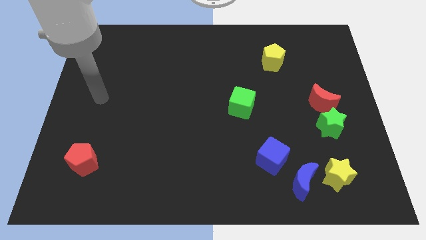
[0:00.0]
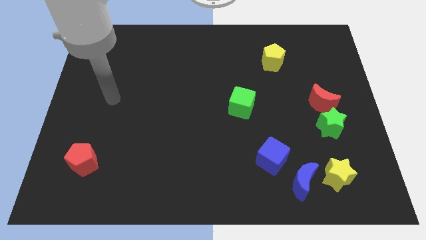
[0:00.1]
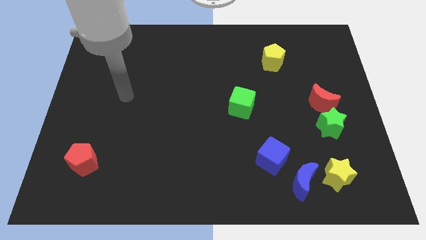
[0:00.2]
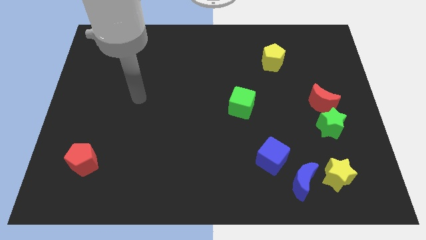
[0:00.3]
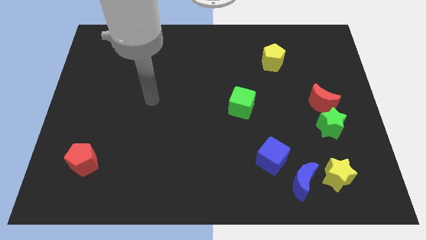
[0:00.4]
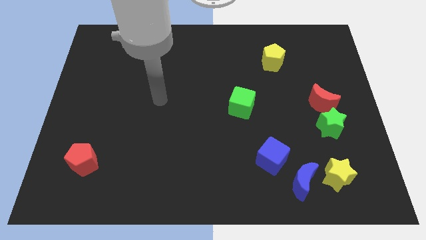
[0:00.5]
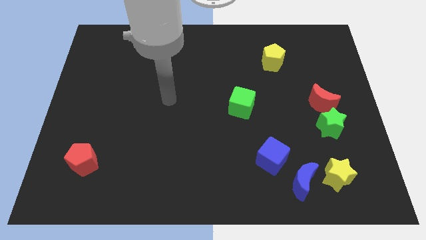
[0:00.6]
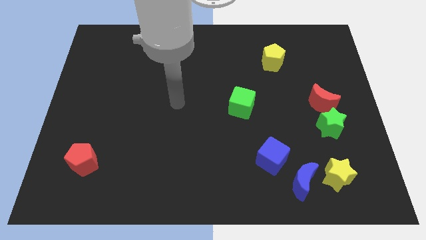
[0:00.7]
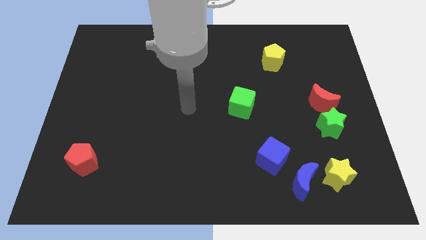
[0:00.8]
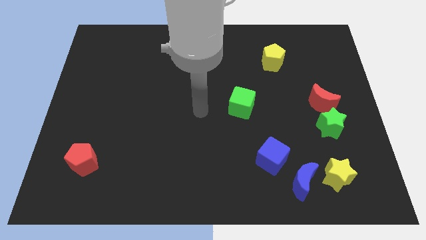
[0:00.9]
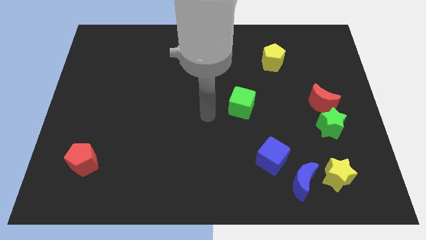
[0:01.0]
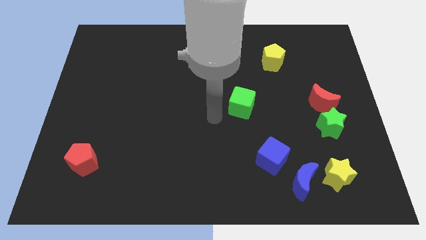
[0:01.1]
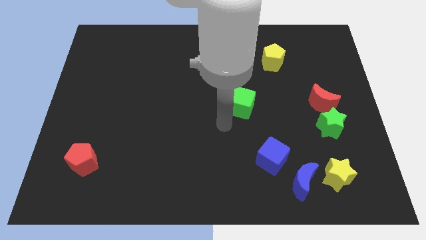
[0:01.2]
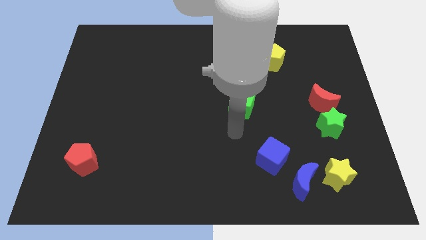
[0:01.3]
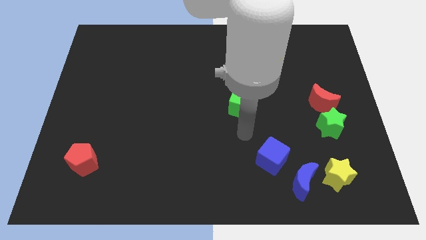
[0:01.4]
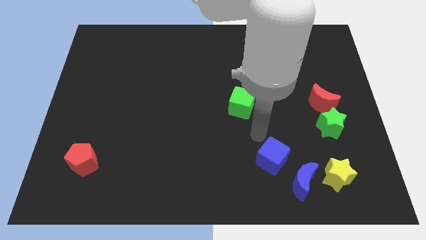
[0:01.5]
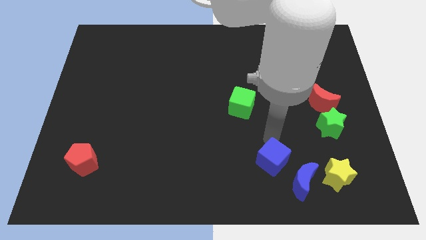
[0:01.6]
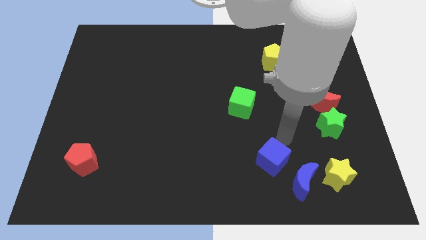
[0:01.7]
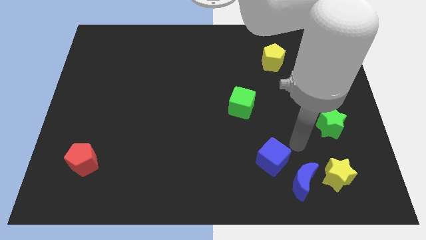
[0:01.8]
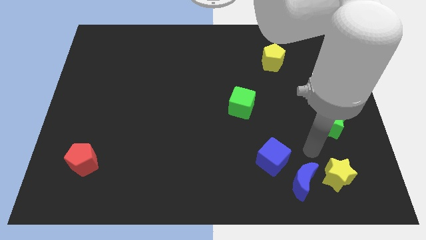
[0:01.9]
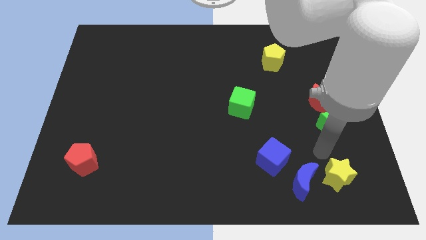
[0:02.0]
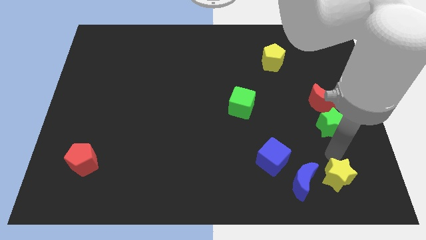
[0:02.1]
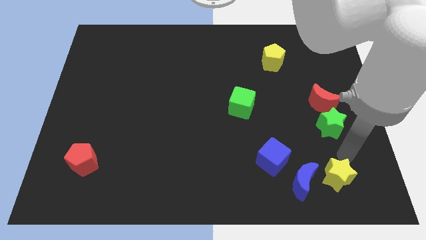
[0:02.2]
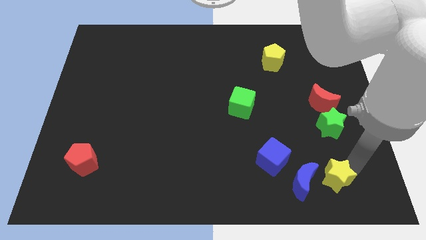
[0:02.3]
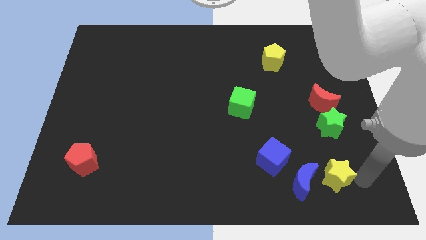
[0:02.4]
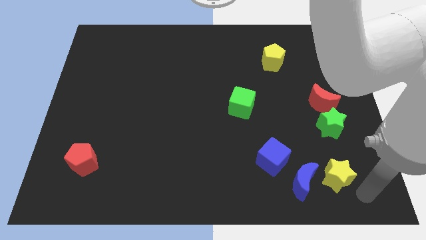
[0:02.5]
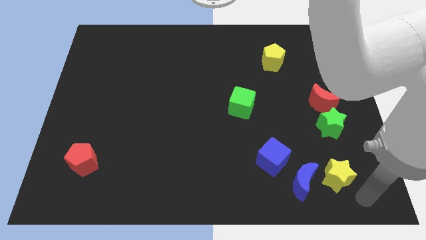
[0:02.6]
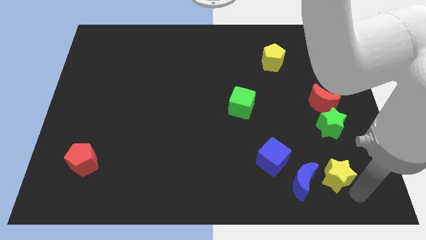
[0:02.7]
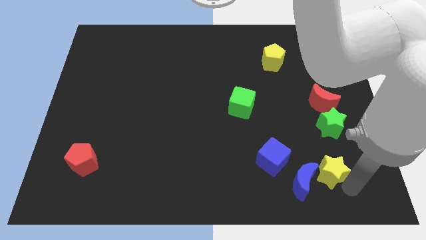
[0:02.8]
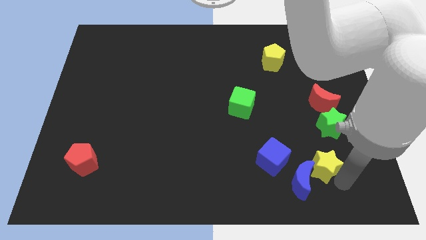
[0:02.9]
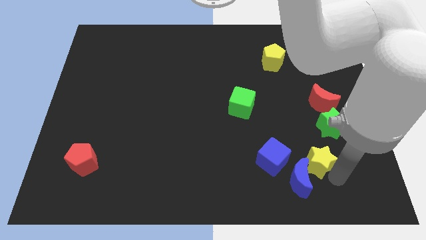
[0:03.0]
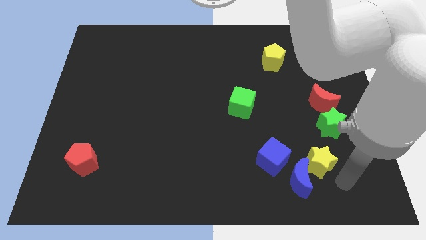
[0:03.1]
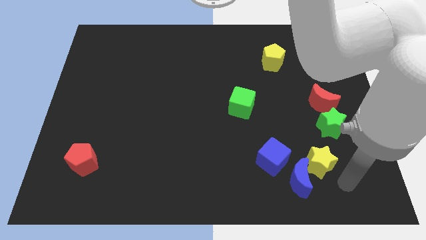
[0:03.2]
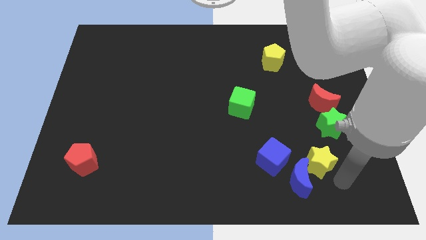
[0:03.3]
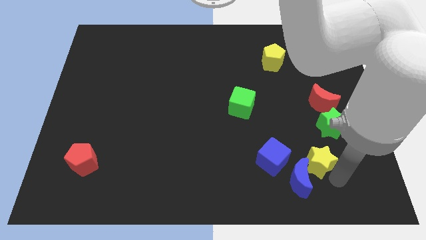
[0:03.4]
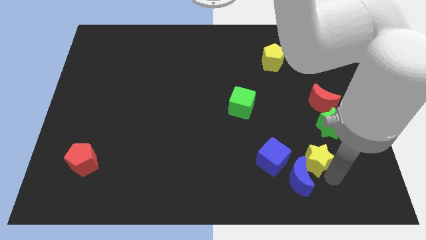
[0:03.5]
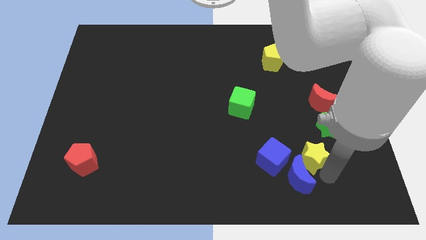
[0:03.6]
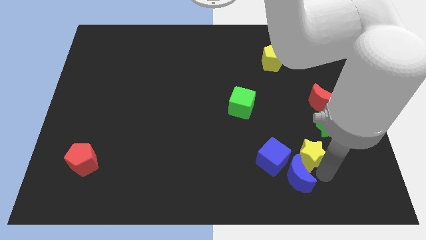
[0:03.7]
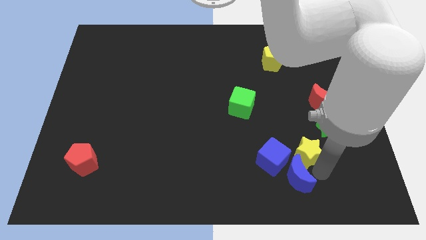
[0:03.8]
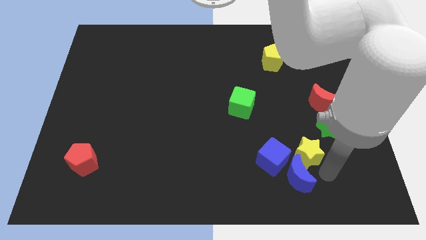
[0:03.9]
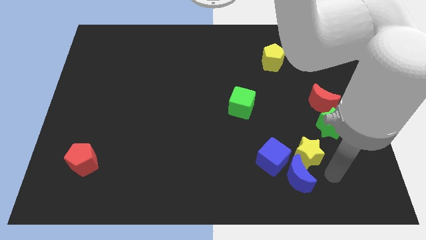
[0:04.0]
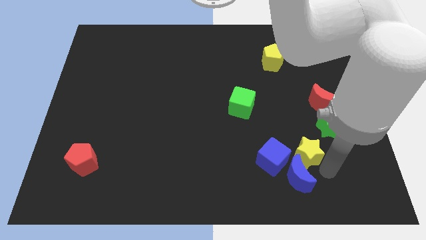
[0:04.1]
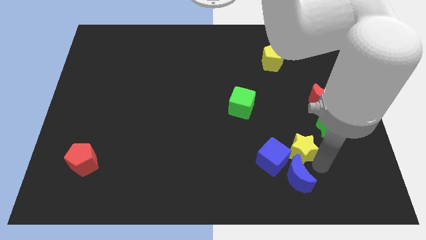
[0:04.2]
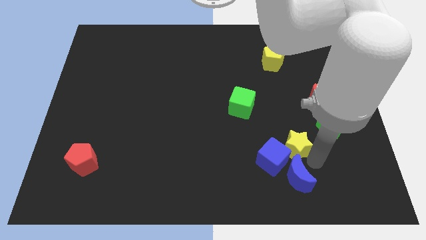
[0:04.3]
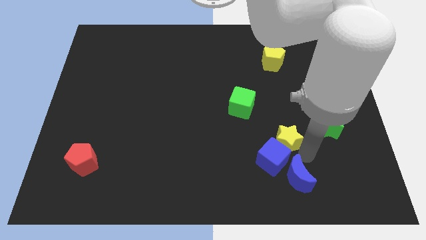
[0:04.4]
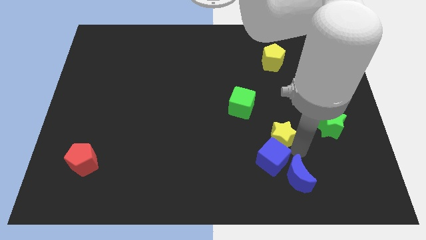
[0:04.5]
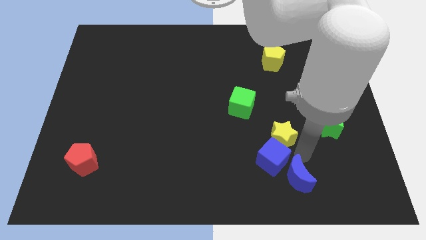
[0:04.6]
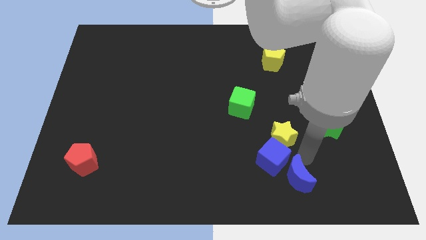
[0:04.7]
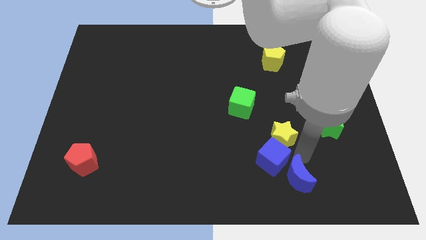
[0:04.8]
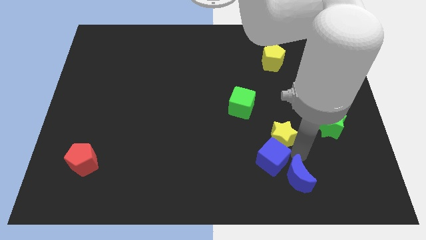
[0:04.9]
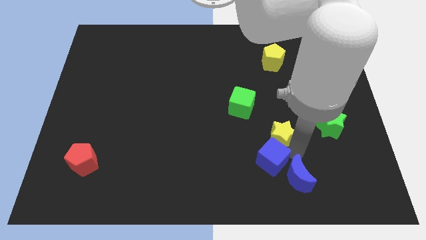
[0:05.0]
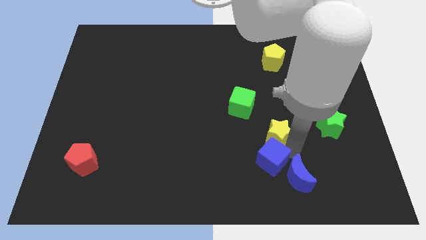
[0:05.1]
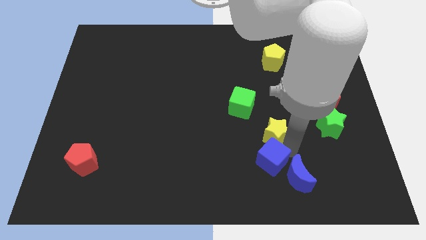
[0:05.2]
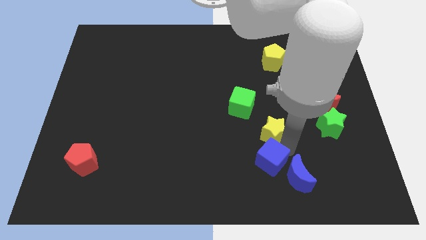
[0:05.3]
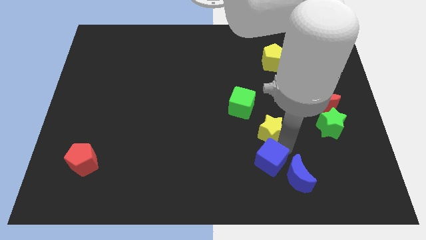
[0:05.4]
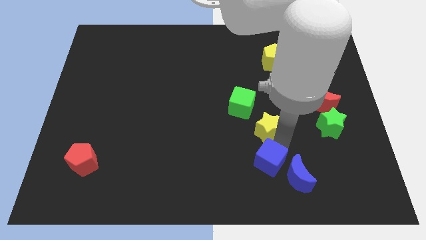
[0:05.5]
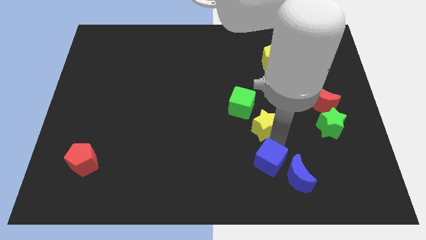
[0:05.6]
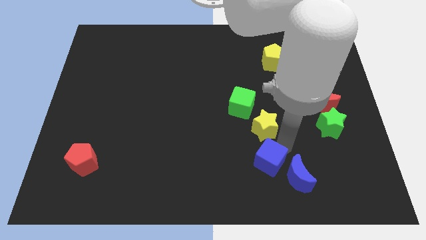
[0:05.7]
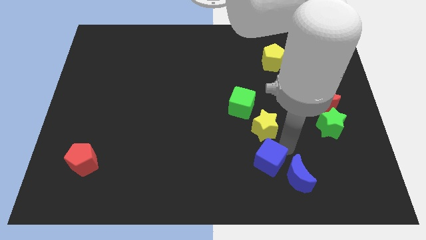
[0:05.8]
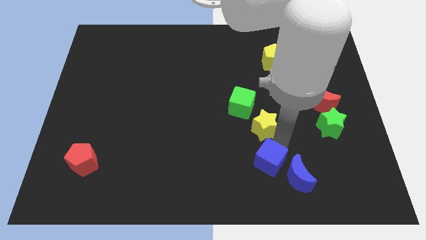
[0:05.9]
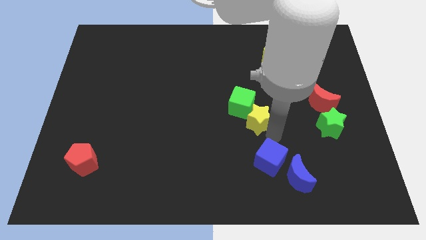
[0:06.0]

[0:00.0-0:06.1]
push the yellow star next to the green cube

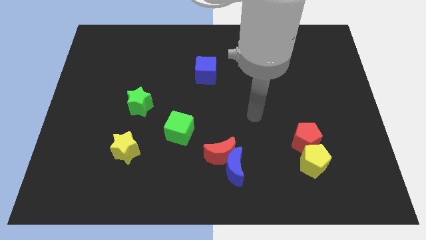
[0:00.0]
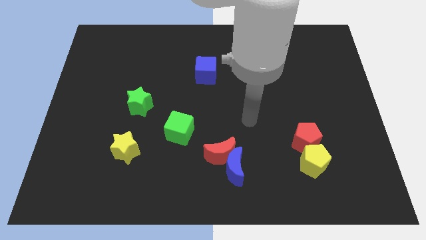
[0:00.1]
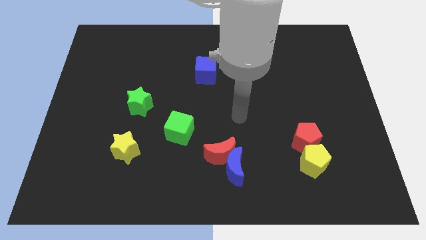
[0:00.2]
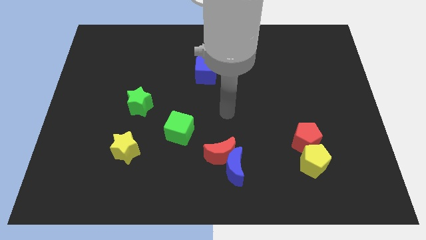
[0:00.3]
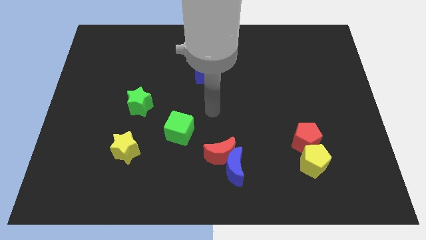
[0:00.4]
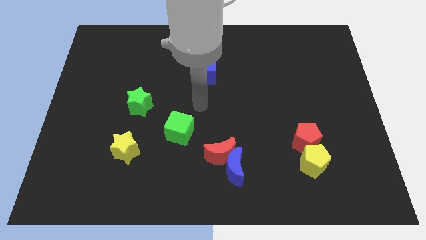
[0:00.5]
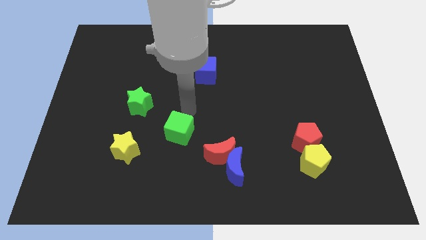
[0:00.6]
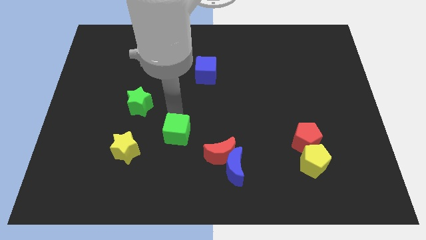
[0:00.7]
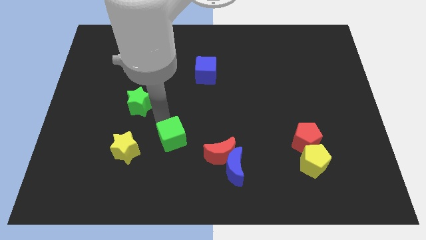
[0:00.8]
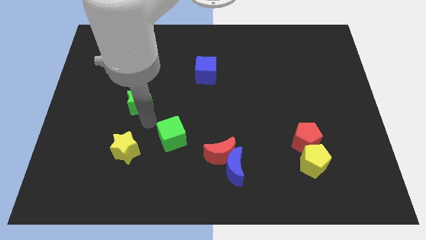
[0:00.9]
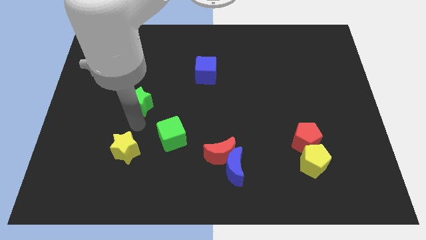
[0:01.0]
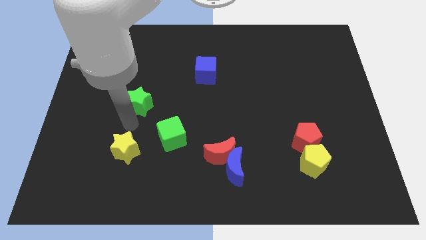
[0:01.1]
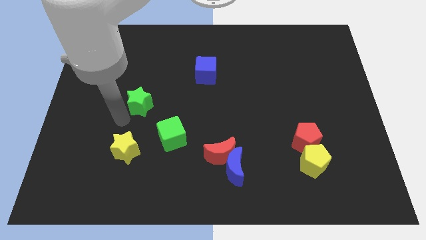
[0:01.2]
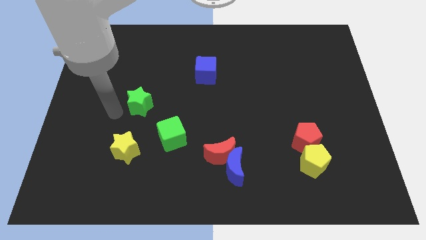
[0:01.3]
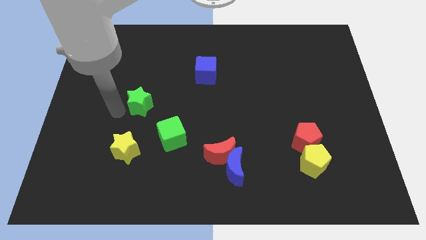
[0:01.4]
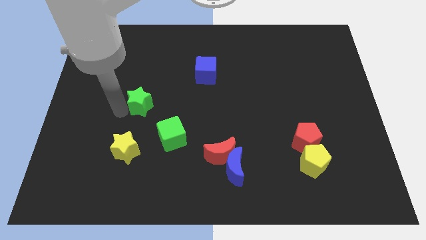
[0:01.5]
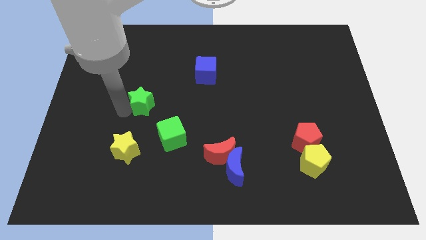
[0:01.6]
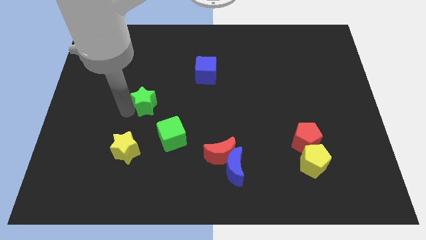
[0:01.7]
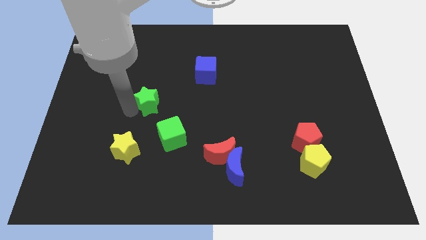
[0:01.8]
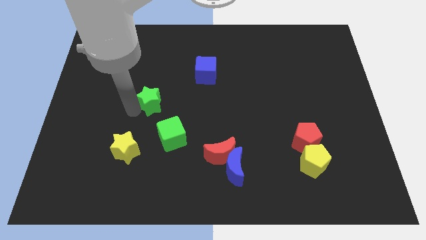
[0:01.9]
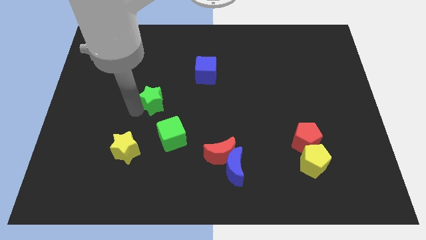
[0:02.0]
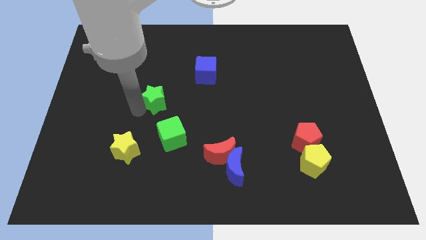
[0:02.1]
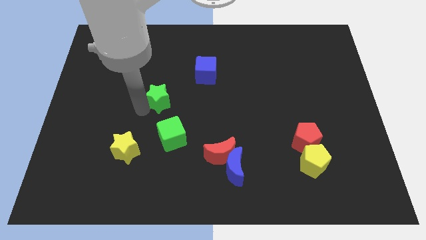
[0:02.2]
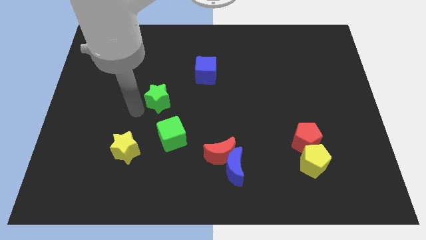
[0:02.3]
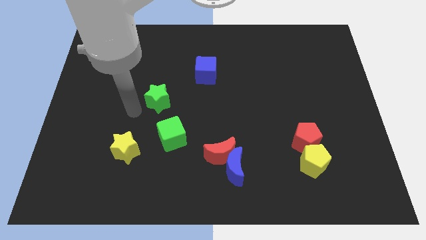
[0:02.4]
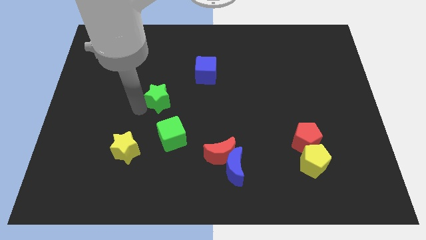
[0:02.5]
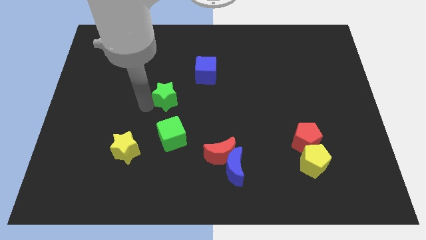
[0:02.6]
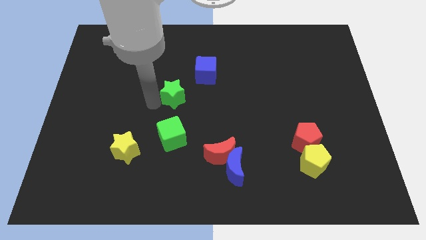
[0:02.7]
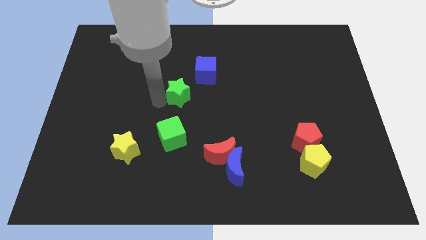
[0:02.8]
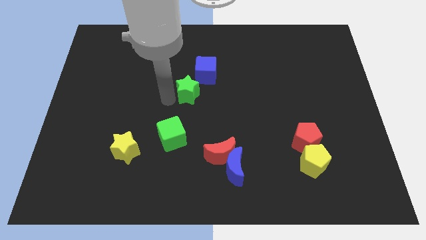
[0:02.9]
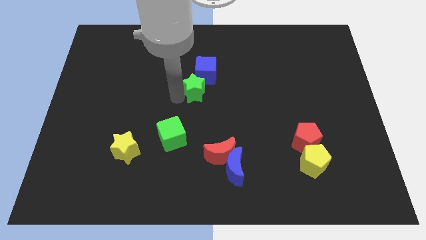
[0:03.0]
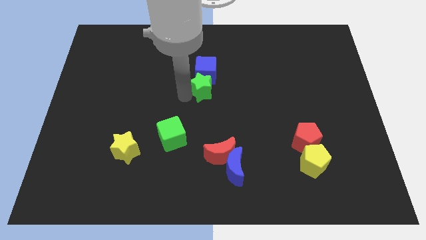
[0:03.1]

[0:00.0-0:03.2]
put the green star next to the blue cube
